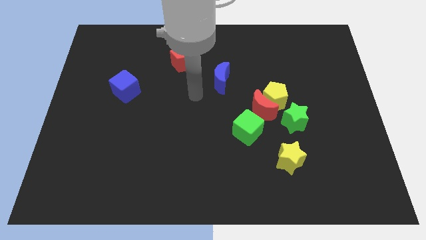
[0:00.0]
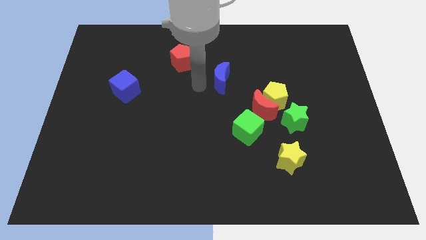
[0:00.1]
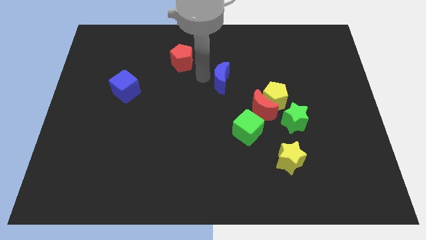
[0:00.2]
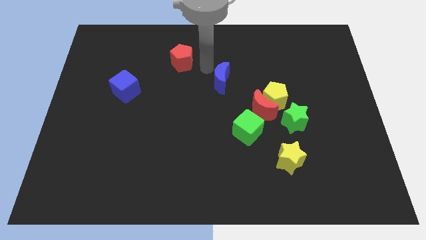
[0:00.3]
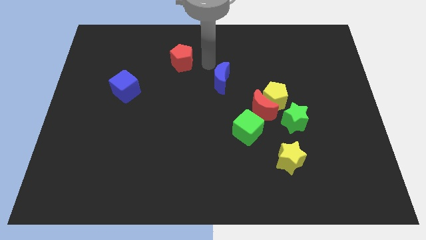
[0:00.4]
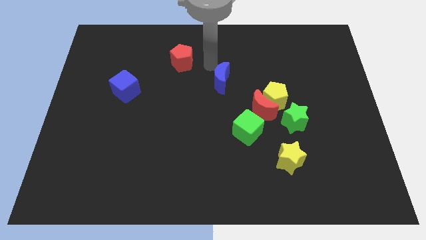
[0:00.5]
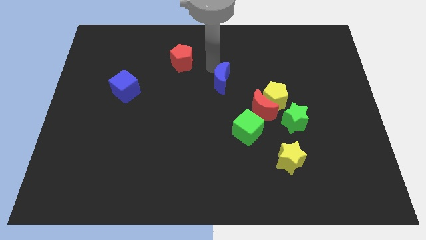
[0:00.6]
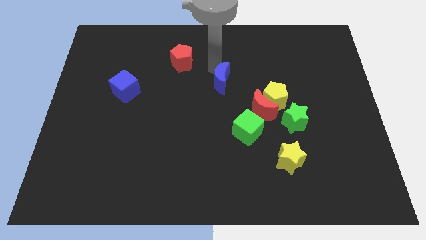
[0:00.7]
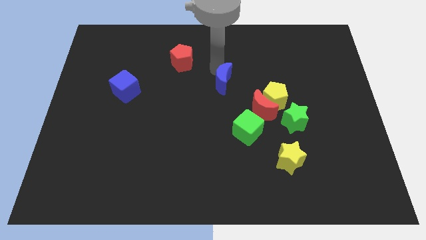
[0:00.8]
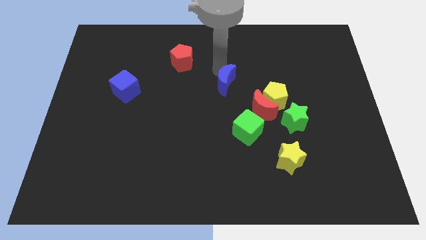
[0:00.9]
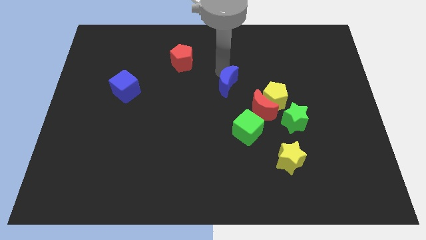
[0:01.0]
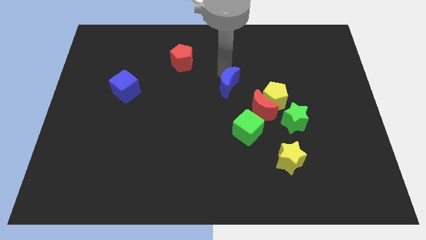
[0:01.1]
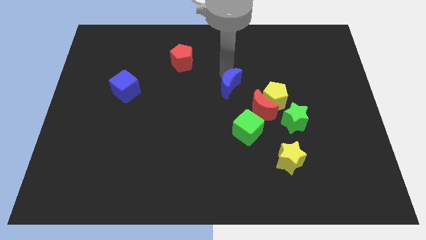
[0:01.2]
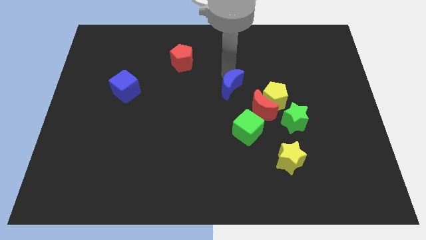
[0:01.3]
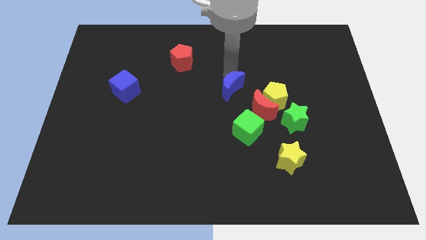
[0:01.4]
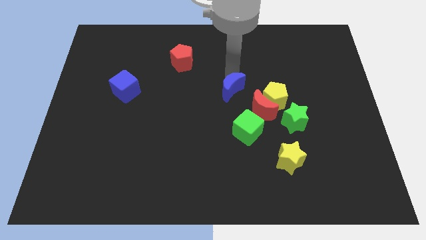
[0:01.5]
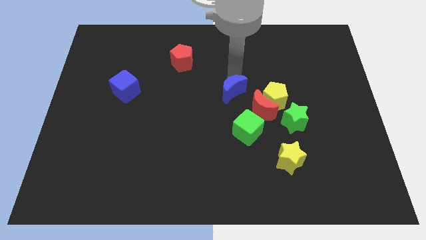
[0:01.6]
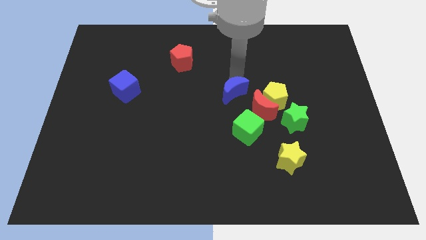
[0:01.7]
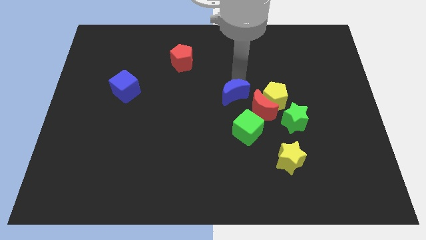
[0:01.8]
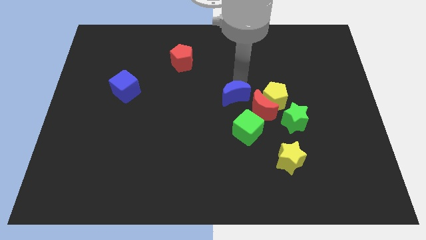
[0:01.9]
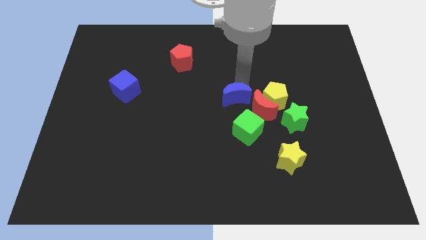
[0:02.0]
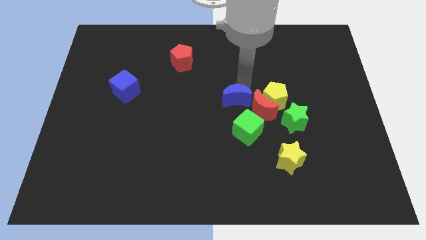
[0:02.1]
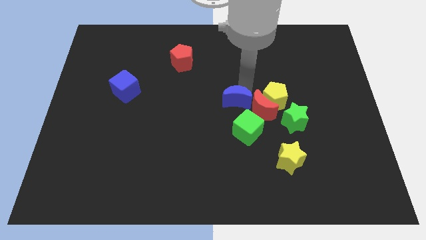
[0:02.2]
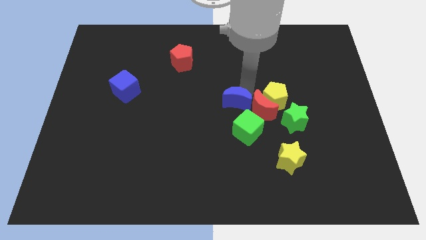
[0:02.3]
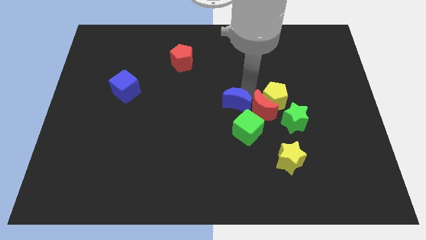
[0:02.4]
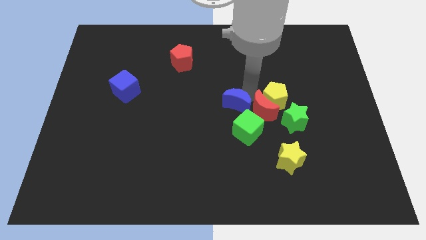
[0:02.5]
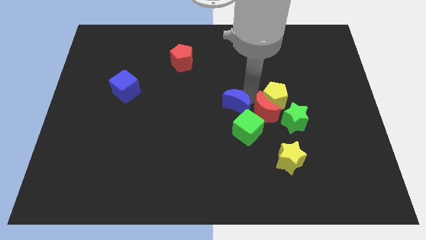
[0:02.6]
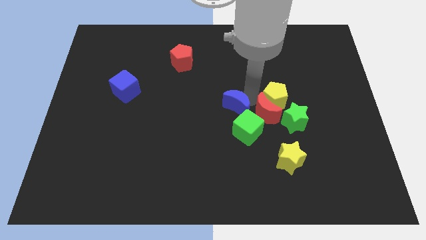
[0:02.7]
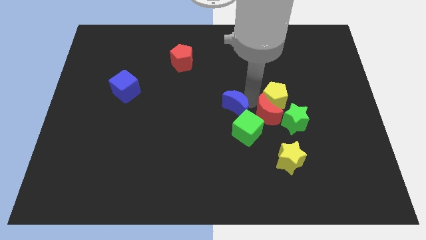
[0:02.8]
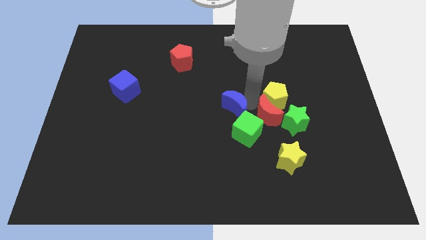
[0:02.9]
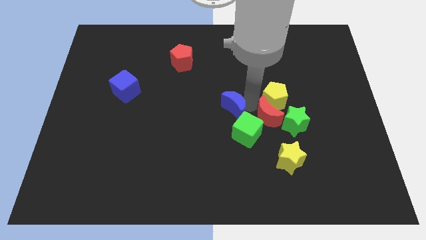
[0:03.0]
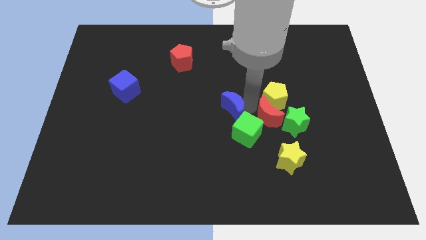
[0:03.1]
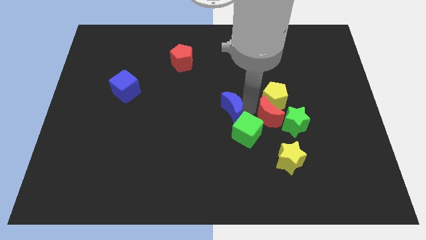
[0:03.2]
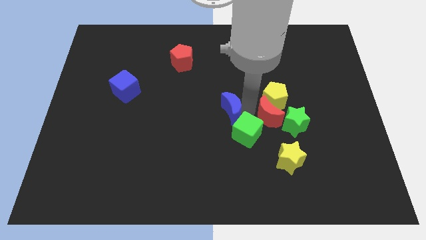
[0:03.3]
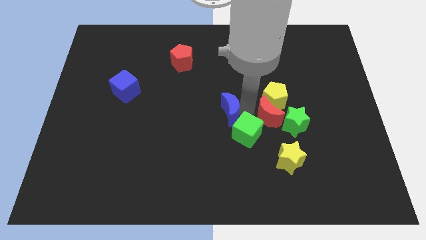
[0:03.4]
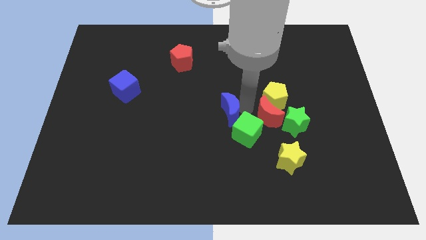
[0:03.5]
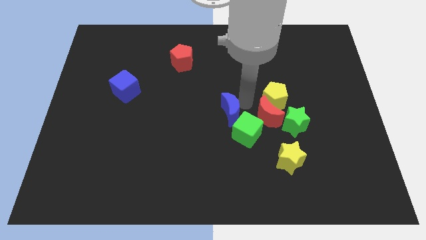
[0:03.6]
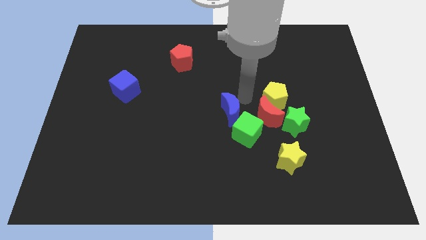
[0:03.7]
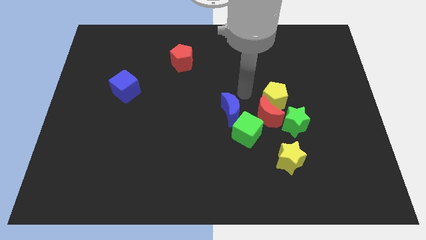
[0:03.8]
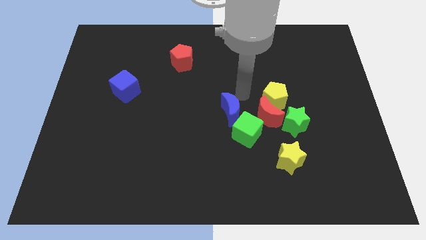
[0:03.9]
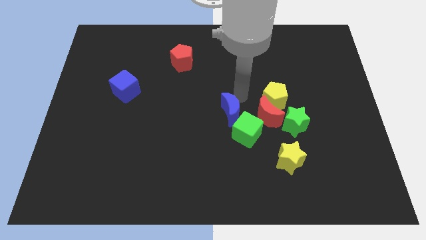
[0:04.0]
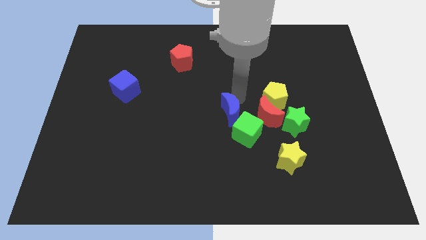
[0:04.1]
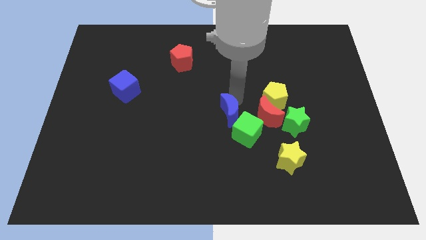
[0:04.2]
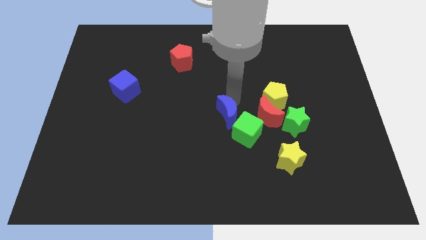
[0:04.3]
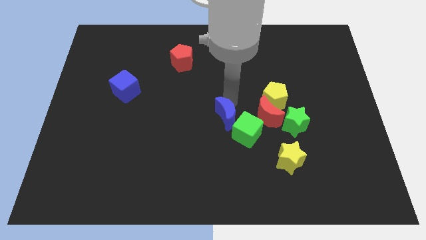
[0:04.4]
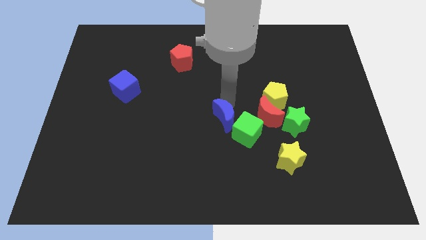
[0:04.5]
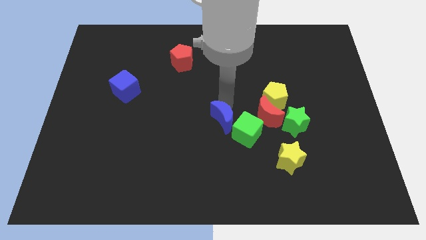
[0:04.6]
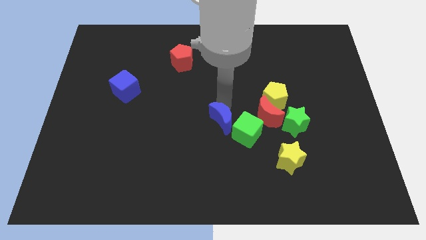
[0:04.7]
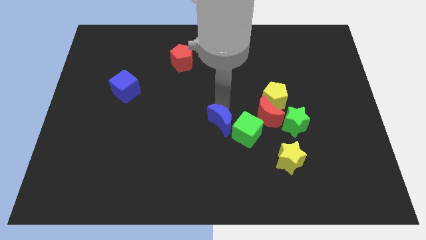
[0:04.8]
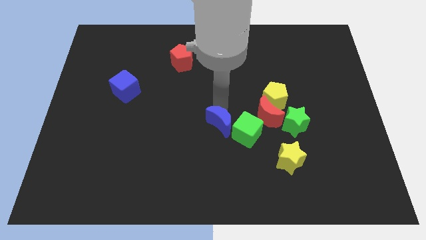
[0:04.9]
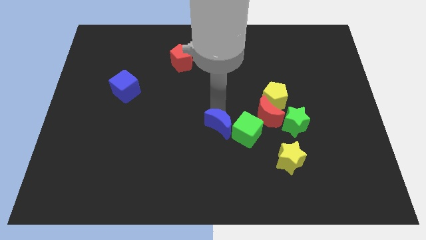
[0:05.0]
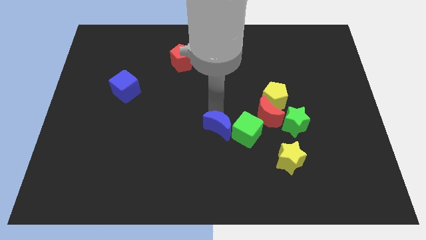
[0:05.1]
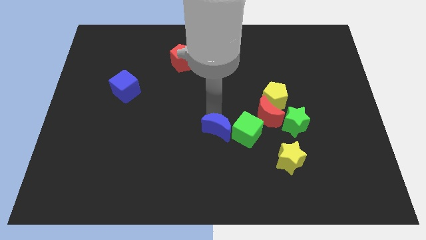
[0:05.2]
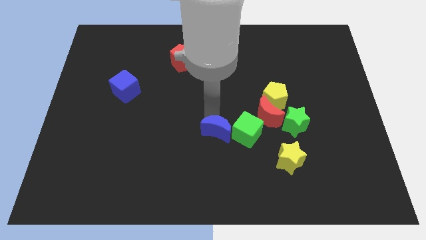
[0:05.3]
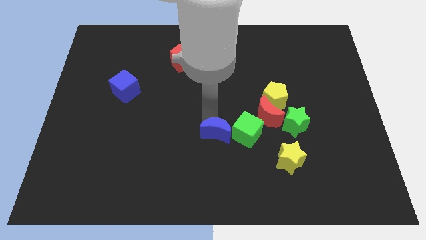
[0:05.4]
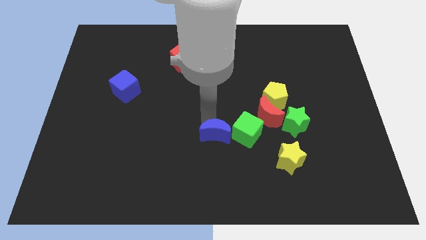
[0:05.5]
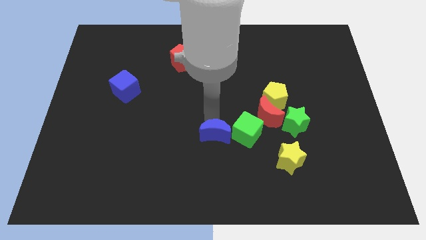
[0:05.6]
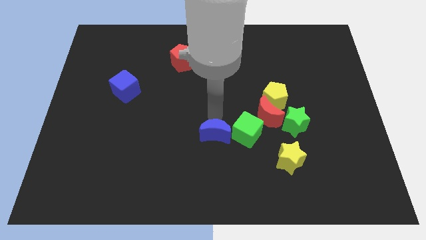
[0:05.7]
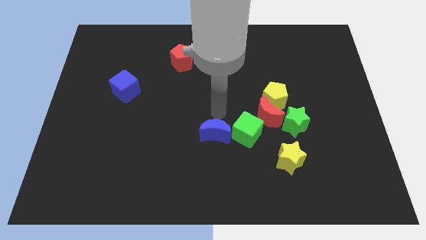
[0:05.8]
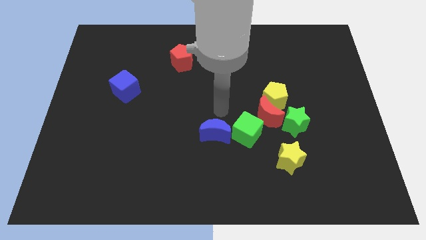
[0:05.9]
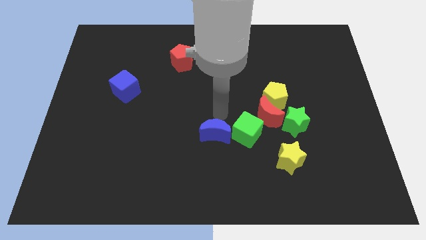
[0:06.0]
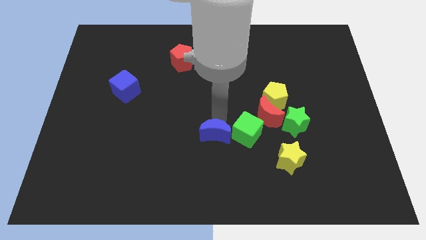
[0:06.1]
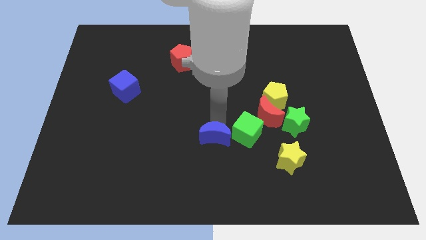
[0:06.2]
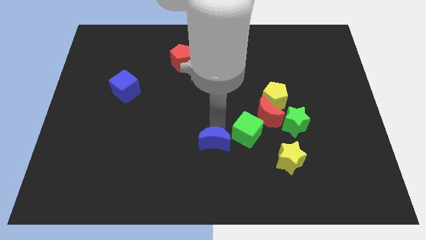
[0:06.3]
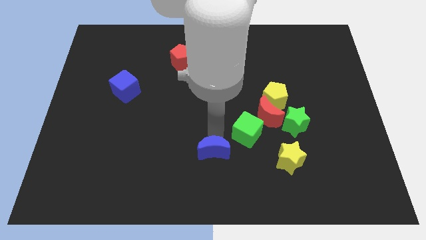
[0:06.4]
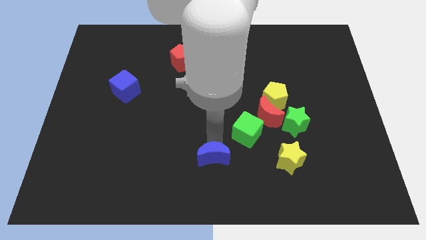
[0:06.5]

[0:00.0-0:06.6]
push the blue moon to the bottom

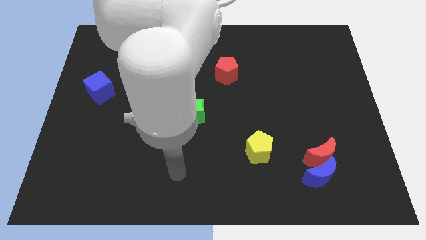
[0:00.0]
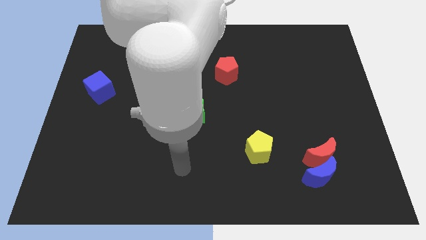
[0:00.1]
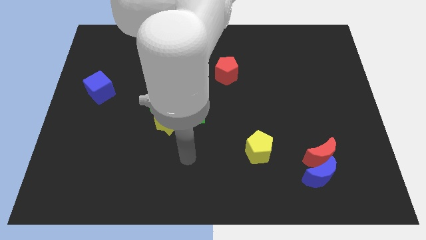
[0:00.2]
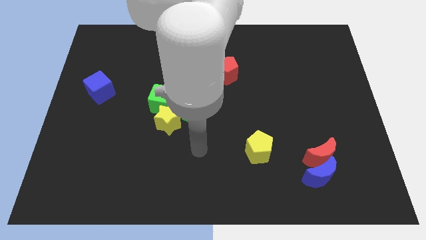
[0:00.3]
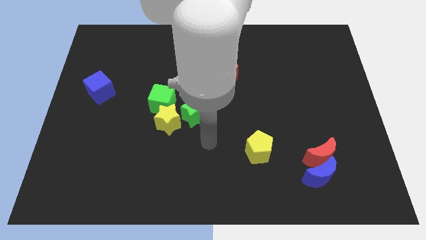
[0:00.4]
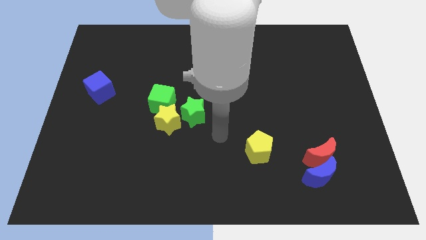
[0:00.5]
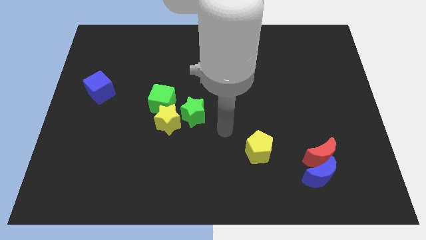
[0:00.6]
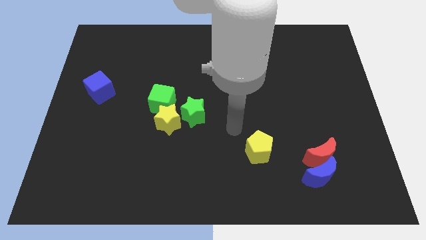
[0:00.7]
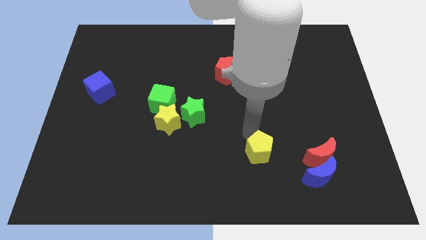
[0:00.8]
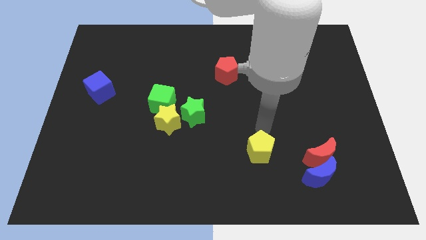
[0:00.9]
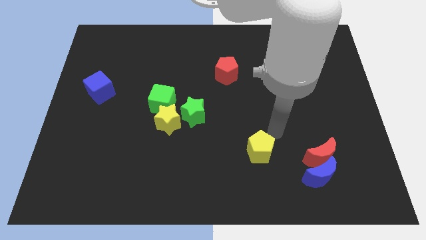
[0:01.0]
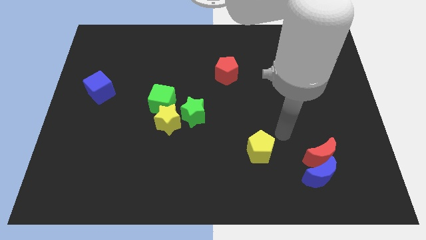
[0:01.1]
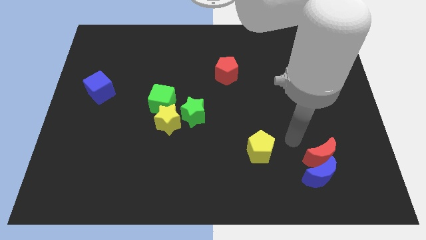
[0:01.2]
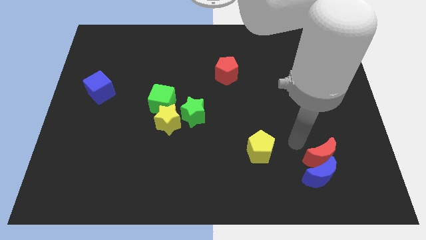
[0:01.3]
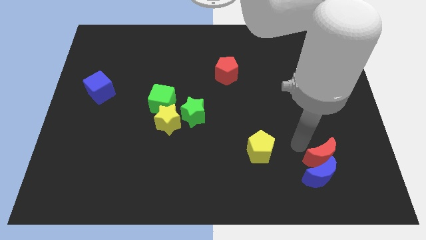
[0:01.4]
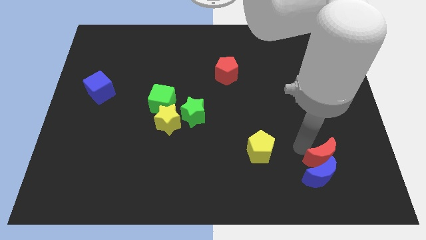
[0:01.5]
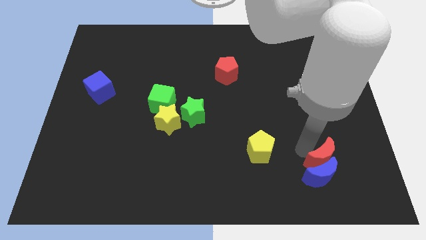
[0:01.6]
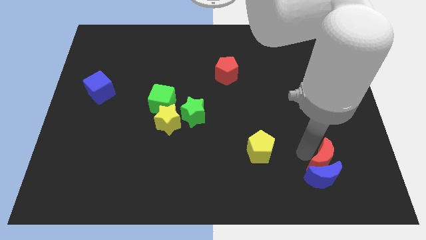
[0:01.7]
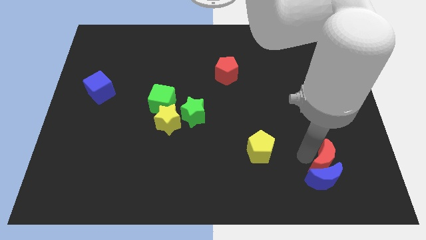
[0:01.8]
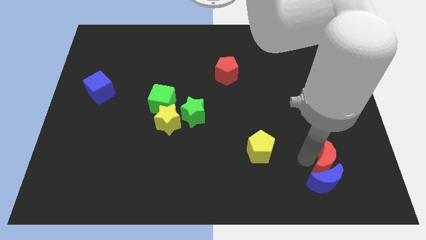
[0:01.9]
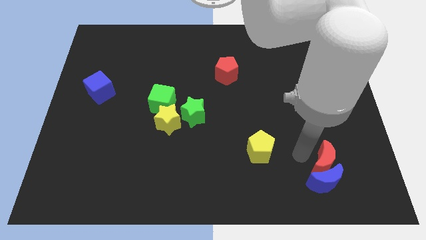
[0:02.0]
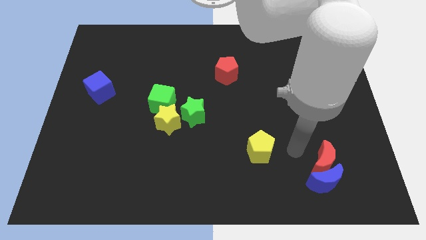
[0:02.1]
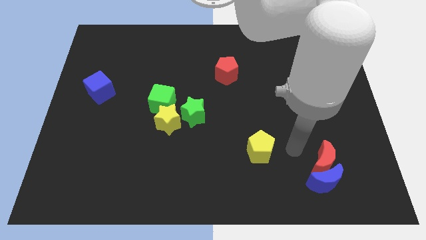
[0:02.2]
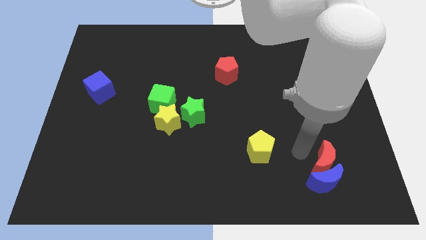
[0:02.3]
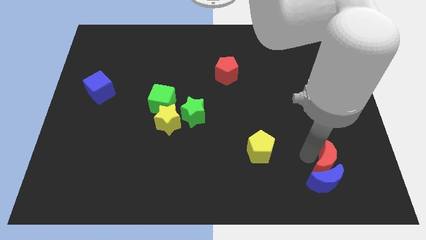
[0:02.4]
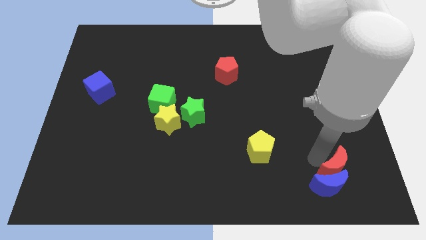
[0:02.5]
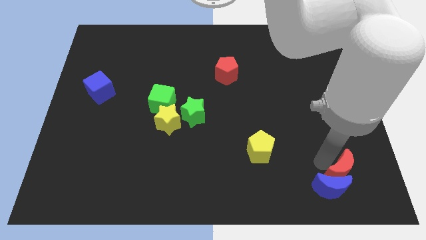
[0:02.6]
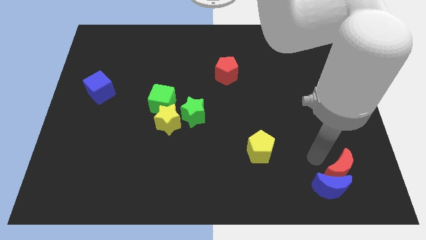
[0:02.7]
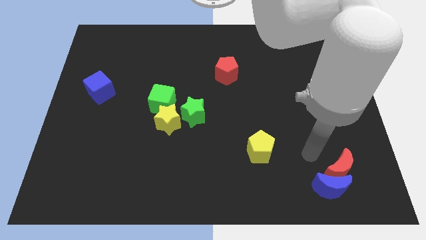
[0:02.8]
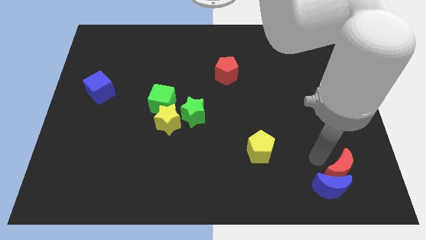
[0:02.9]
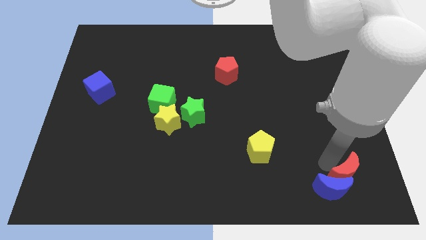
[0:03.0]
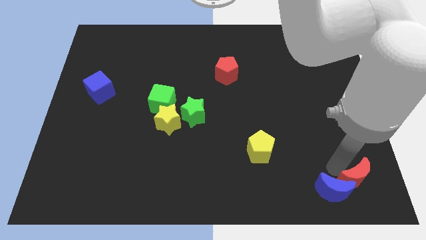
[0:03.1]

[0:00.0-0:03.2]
move the red moon to the bottom right corner
